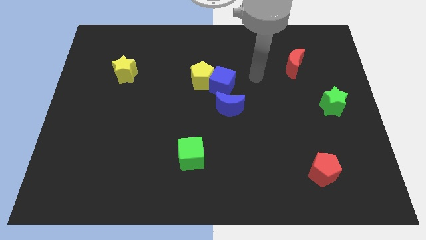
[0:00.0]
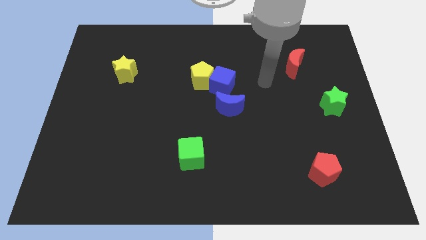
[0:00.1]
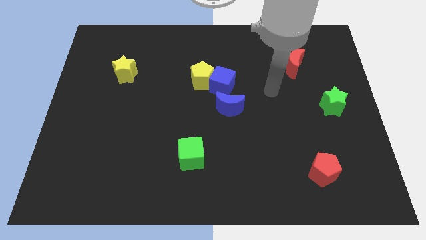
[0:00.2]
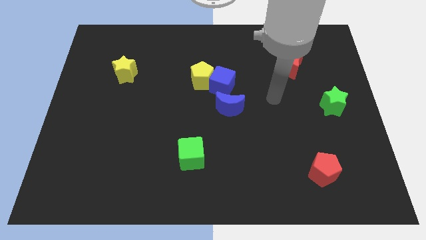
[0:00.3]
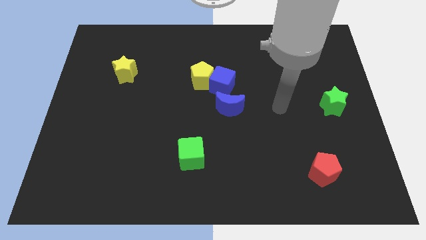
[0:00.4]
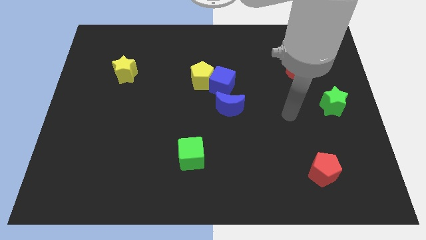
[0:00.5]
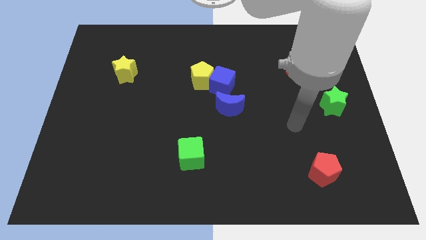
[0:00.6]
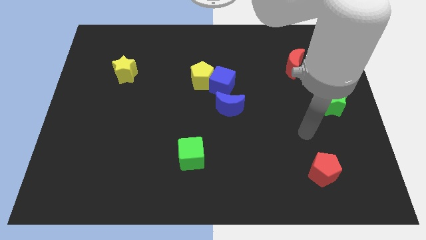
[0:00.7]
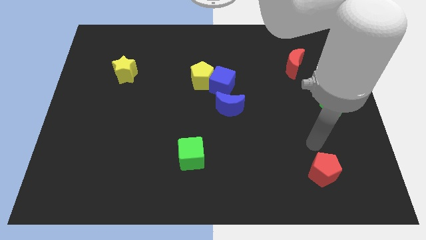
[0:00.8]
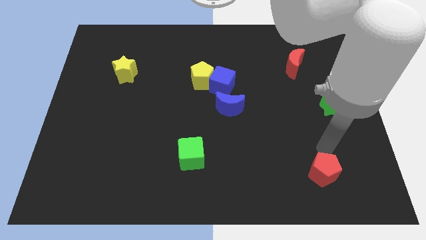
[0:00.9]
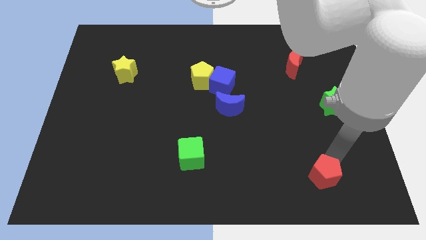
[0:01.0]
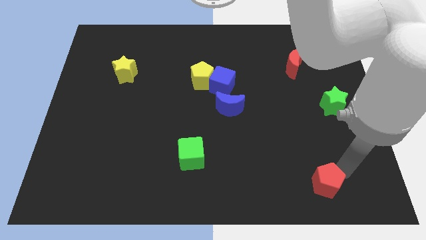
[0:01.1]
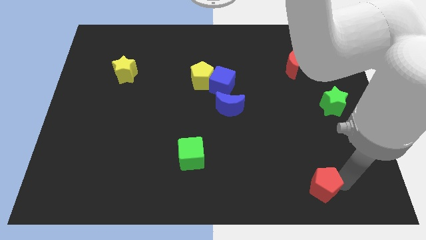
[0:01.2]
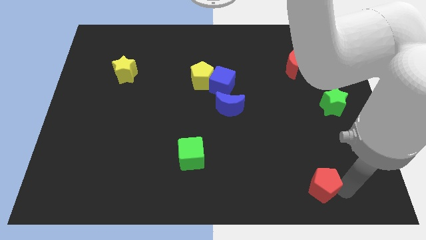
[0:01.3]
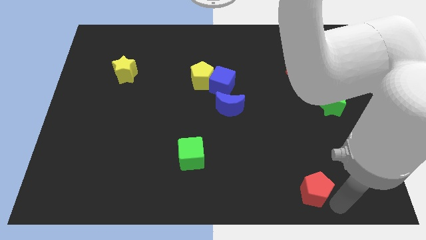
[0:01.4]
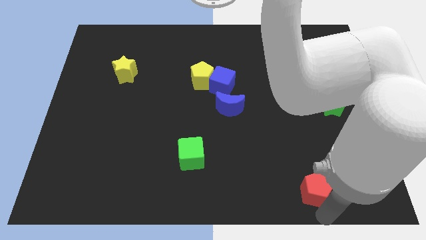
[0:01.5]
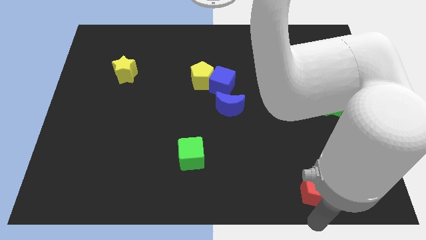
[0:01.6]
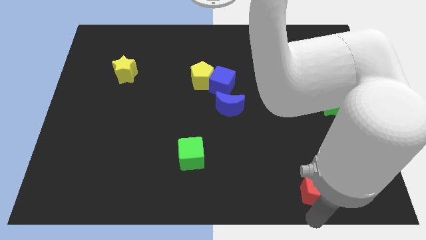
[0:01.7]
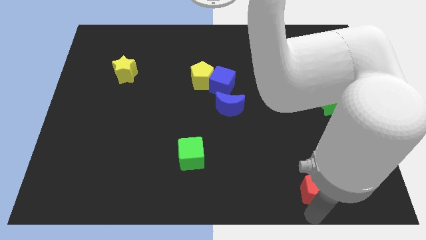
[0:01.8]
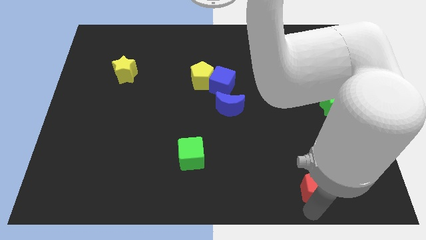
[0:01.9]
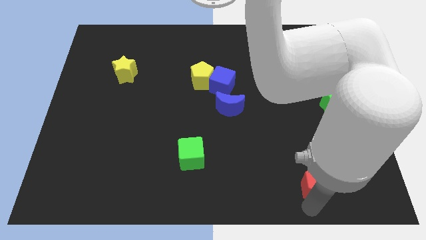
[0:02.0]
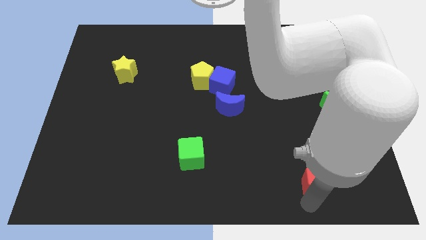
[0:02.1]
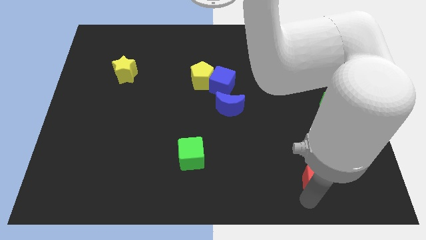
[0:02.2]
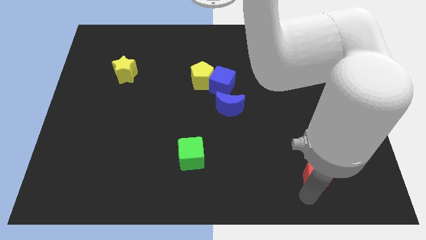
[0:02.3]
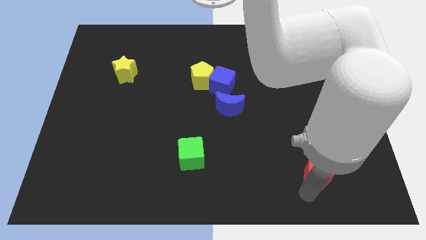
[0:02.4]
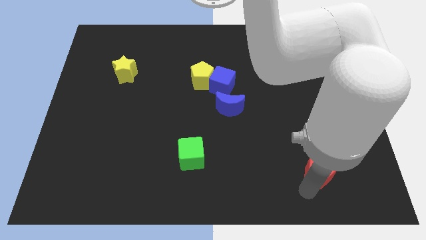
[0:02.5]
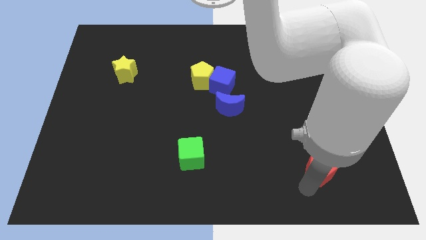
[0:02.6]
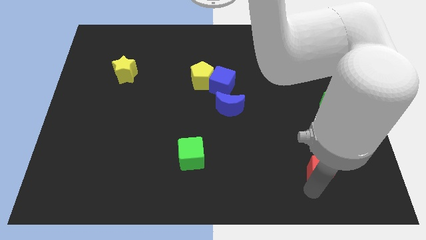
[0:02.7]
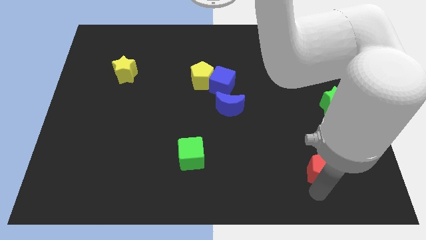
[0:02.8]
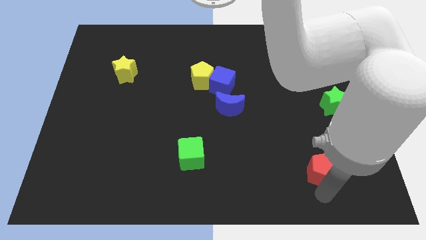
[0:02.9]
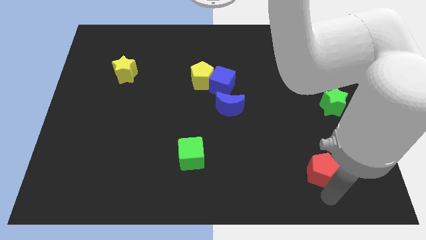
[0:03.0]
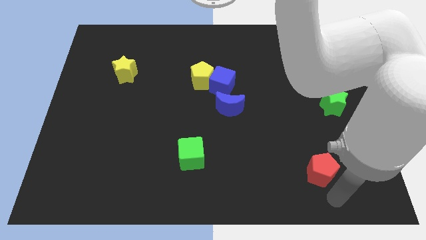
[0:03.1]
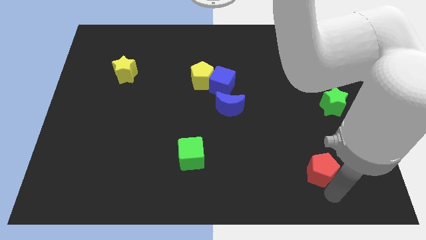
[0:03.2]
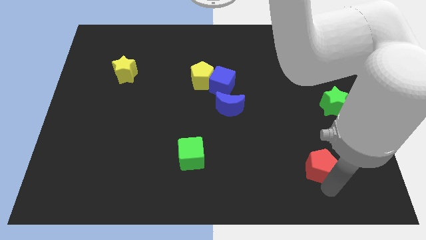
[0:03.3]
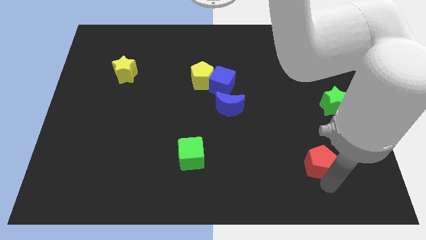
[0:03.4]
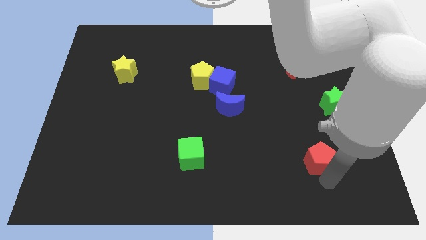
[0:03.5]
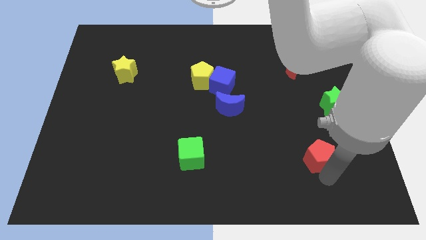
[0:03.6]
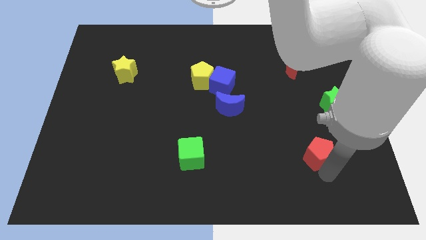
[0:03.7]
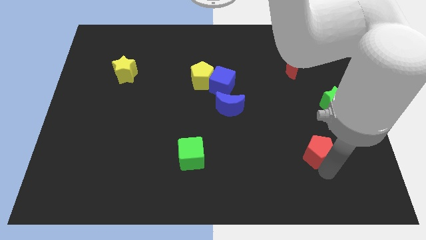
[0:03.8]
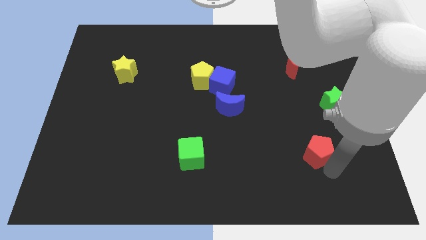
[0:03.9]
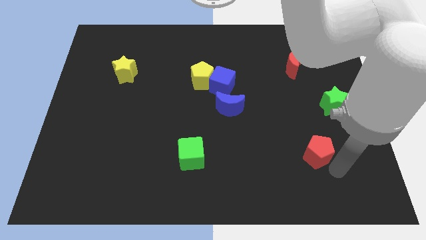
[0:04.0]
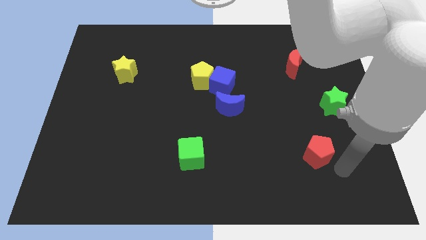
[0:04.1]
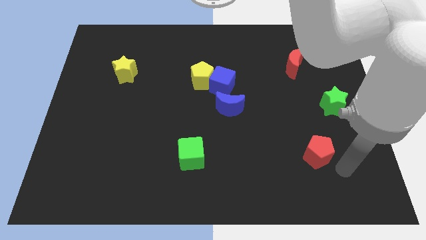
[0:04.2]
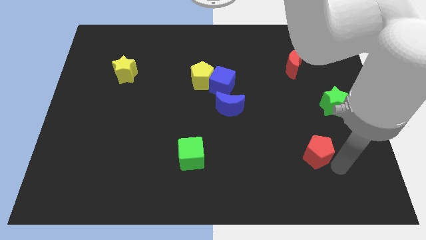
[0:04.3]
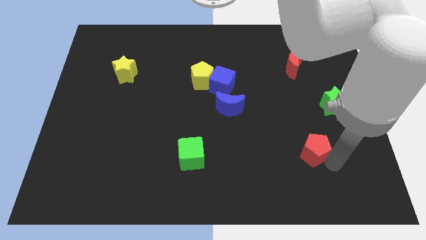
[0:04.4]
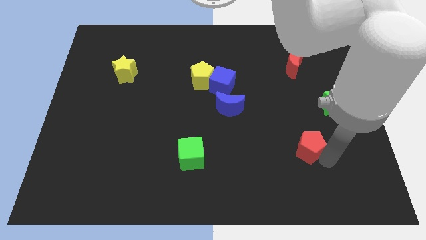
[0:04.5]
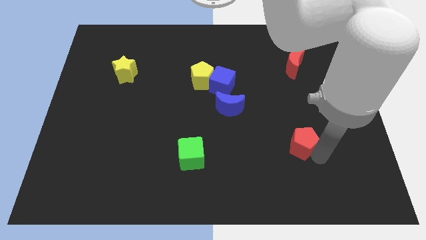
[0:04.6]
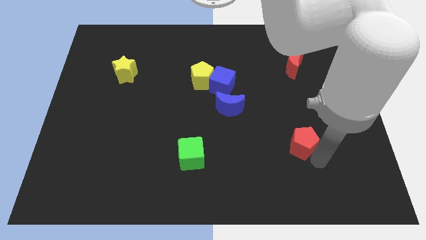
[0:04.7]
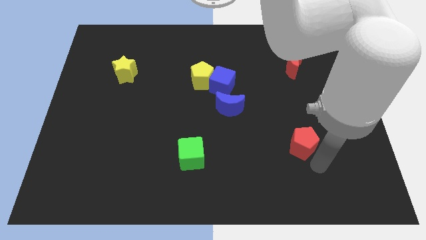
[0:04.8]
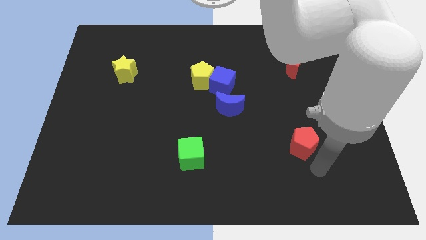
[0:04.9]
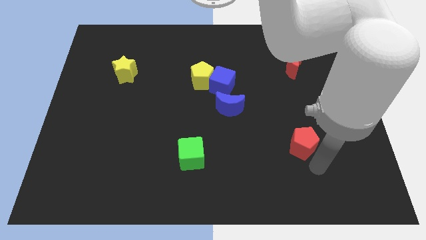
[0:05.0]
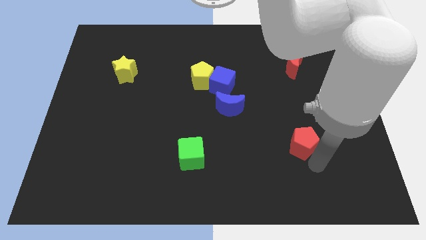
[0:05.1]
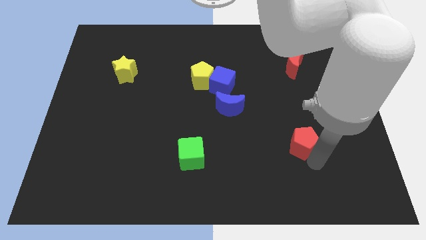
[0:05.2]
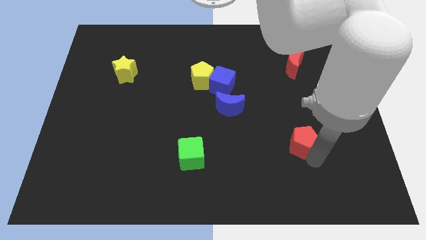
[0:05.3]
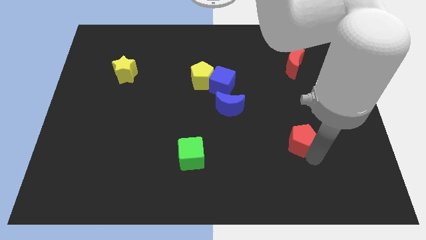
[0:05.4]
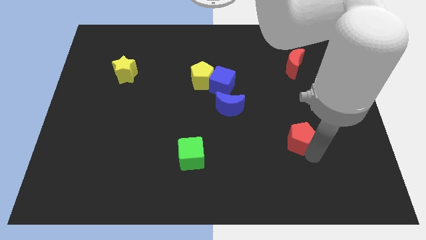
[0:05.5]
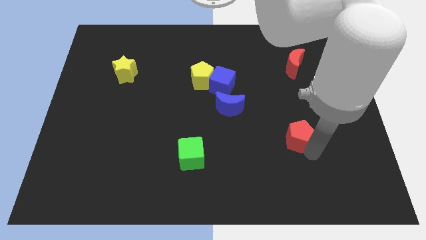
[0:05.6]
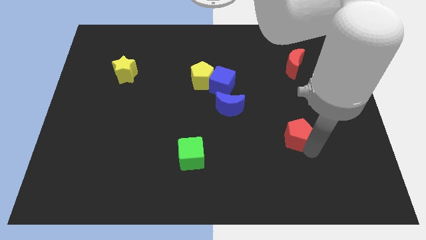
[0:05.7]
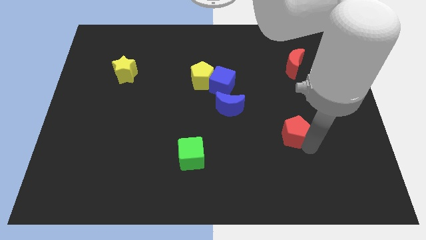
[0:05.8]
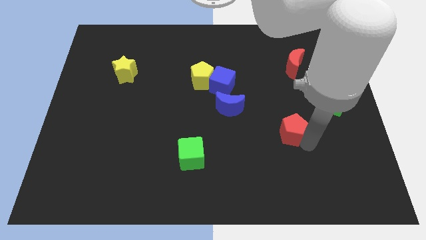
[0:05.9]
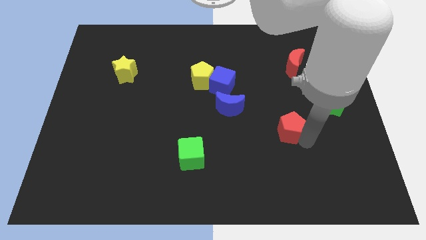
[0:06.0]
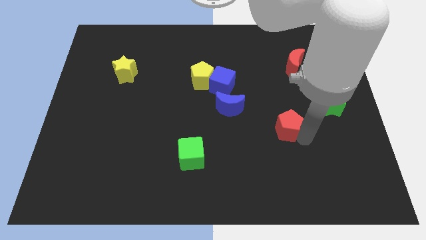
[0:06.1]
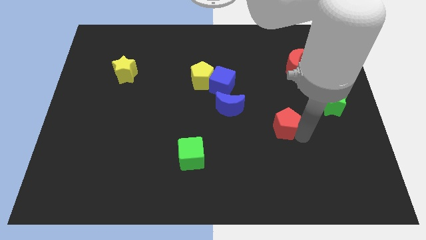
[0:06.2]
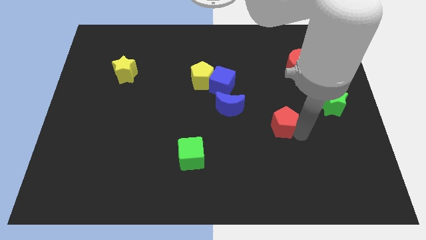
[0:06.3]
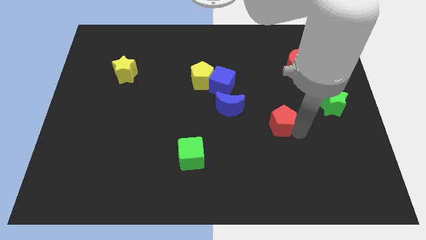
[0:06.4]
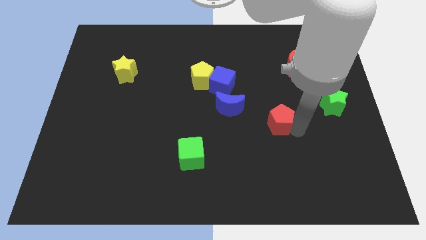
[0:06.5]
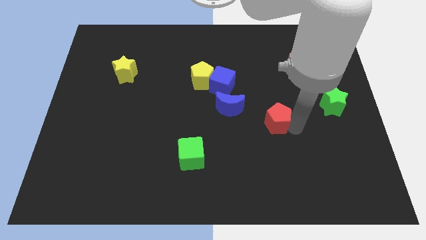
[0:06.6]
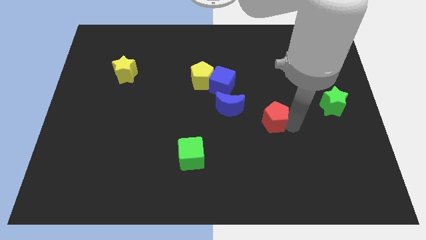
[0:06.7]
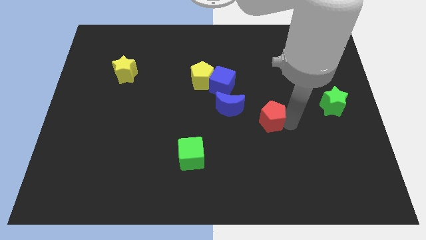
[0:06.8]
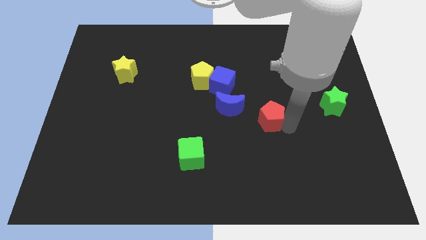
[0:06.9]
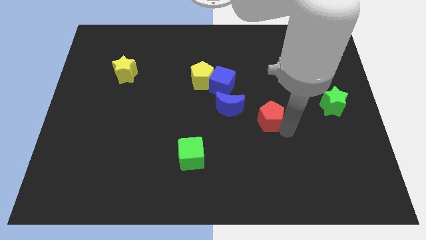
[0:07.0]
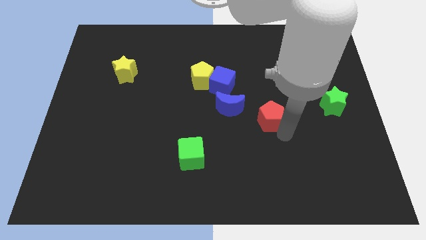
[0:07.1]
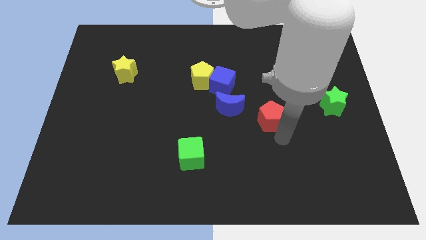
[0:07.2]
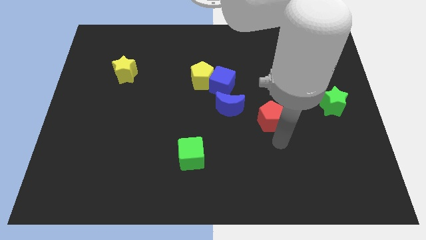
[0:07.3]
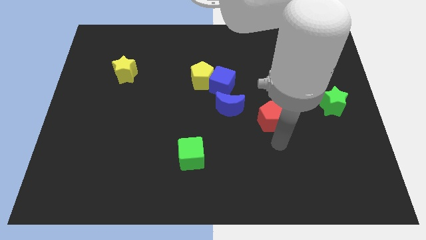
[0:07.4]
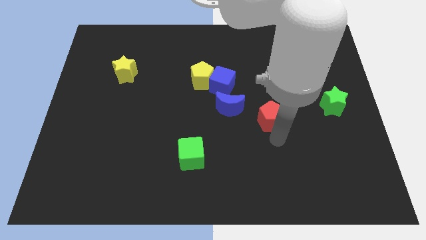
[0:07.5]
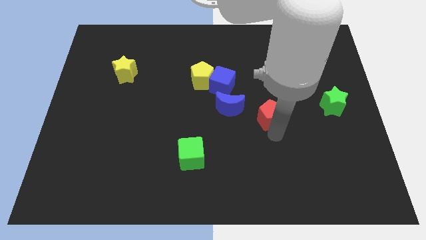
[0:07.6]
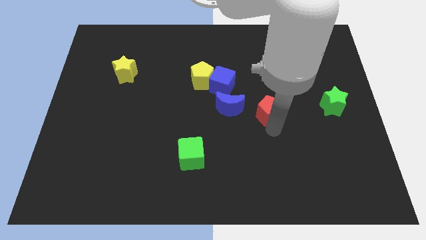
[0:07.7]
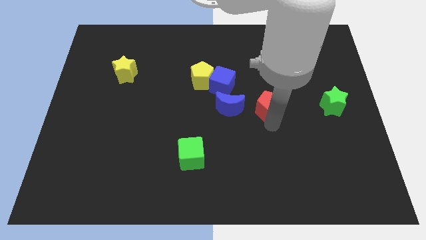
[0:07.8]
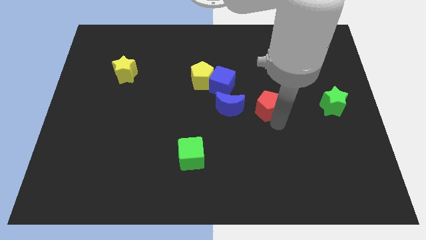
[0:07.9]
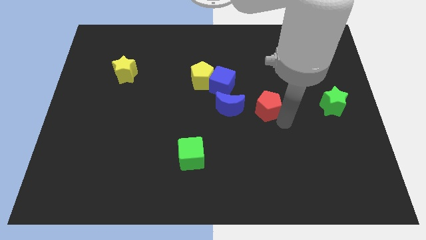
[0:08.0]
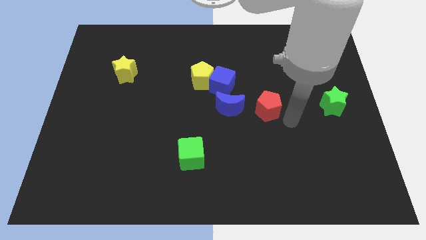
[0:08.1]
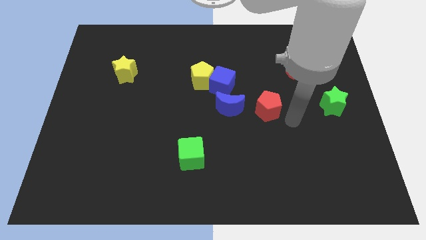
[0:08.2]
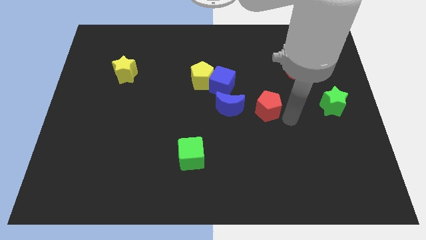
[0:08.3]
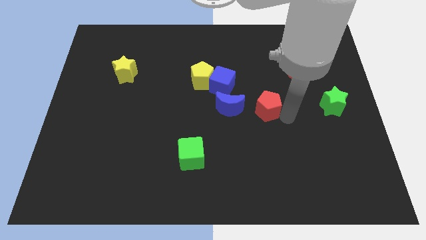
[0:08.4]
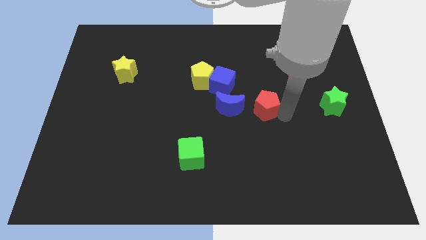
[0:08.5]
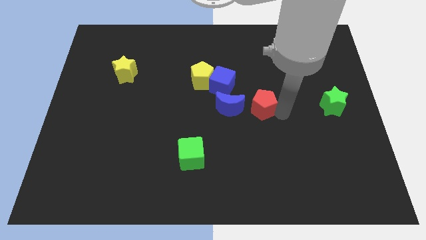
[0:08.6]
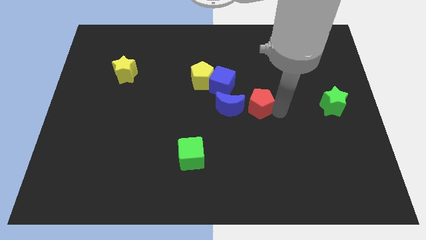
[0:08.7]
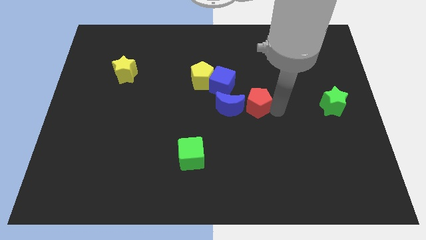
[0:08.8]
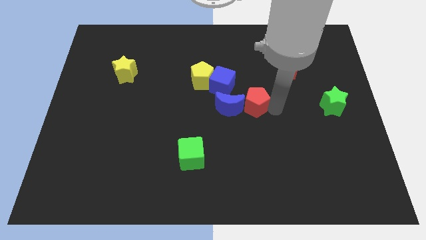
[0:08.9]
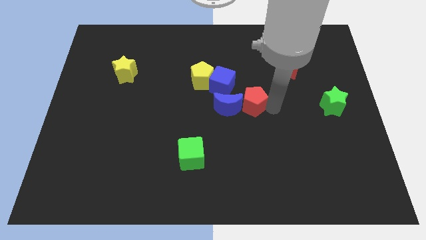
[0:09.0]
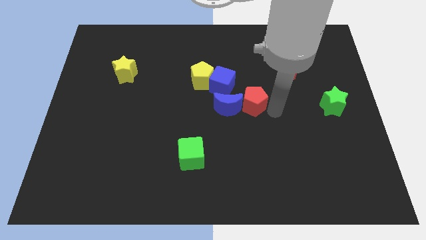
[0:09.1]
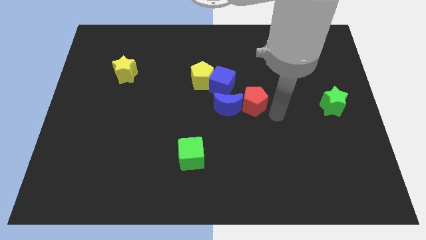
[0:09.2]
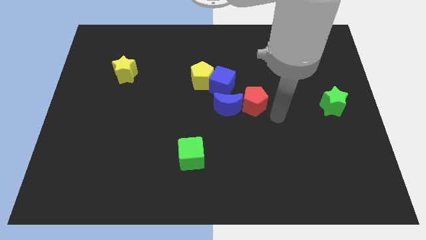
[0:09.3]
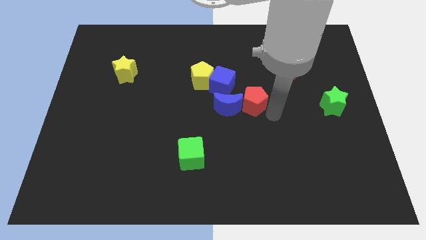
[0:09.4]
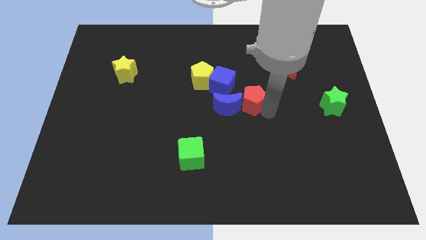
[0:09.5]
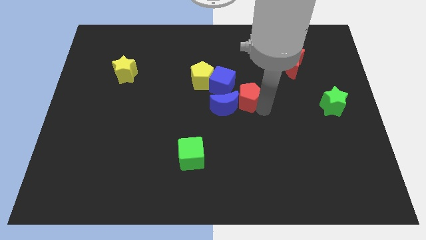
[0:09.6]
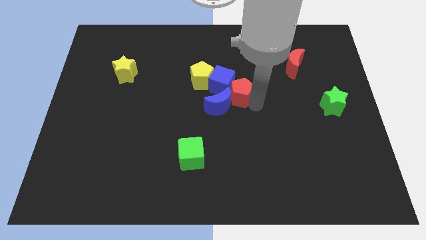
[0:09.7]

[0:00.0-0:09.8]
push the red pentagon close to the blue cube
